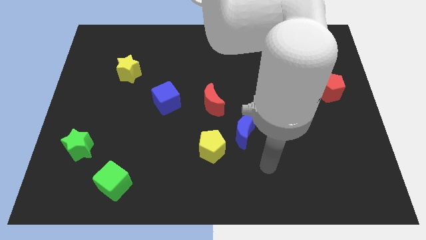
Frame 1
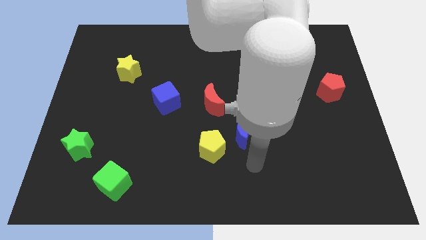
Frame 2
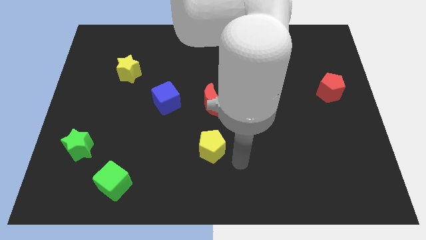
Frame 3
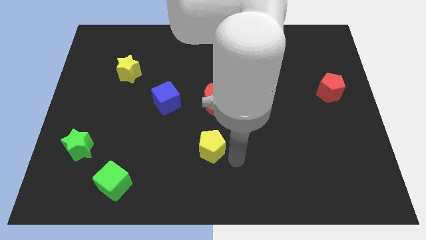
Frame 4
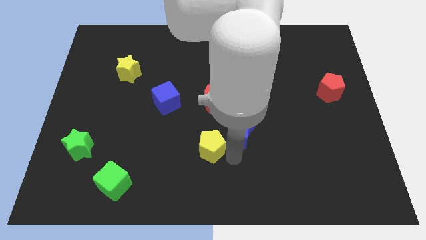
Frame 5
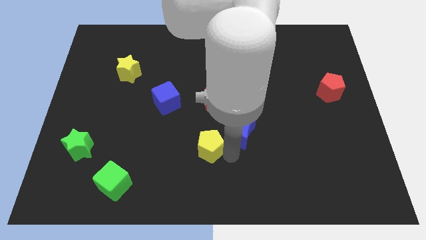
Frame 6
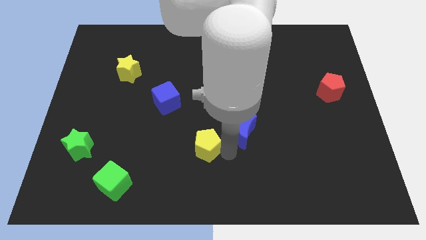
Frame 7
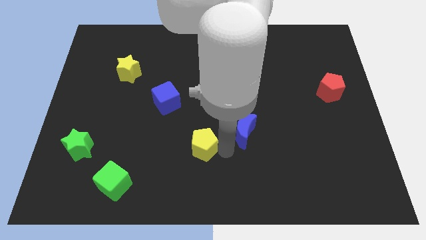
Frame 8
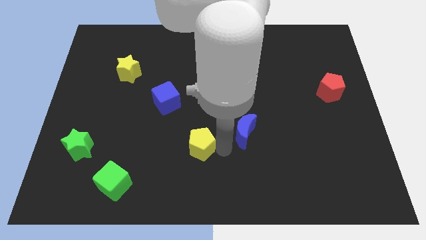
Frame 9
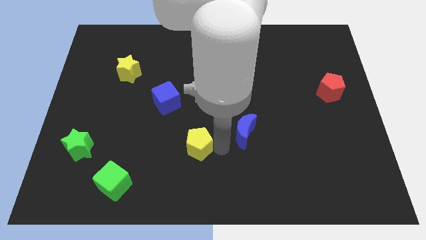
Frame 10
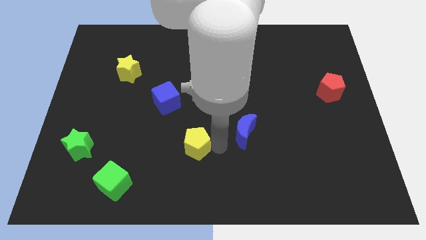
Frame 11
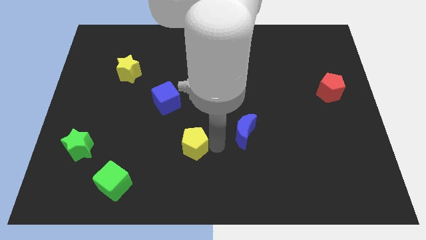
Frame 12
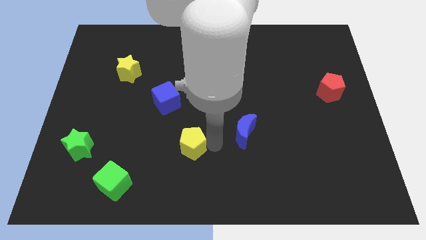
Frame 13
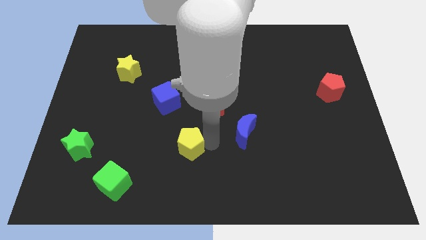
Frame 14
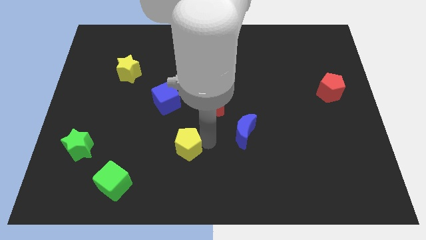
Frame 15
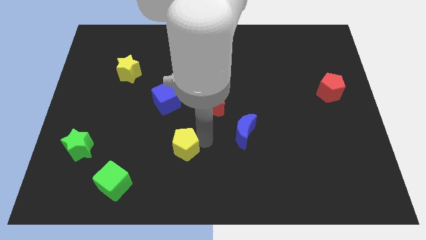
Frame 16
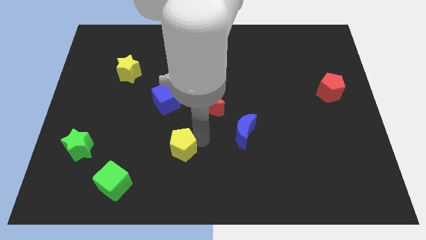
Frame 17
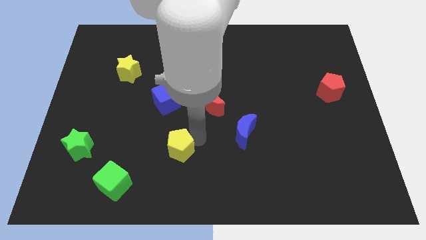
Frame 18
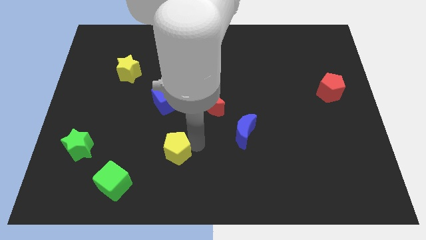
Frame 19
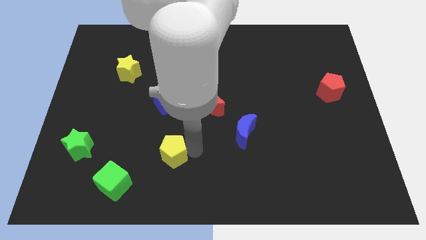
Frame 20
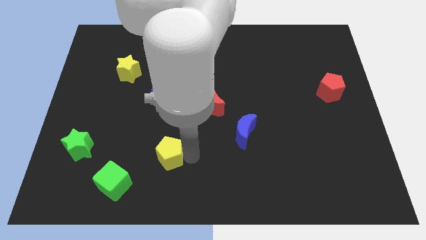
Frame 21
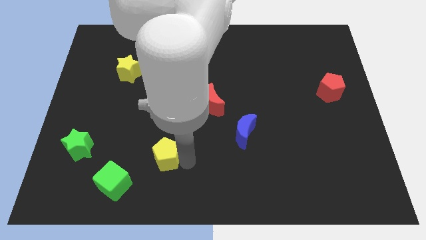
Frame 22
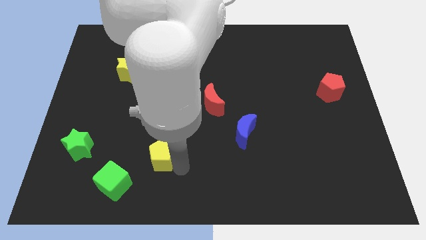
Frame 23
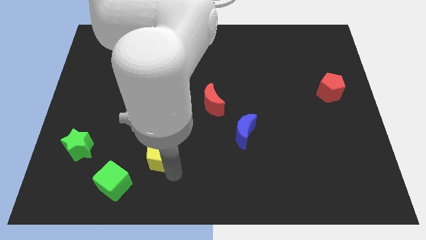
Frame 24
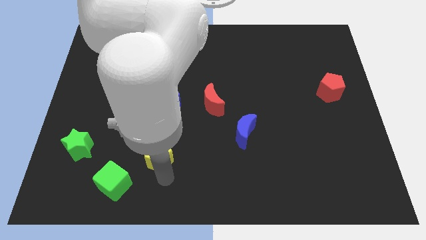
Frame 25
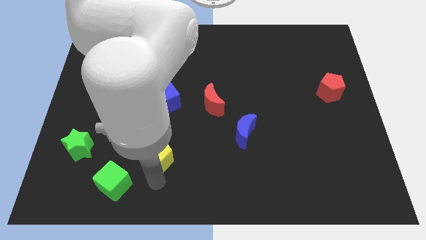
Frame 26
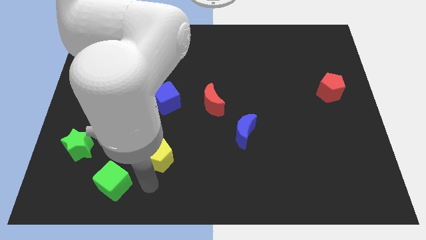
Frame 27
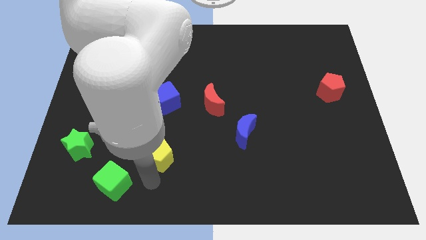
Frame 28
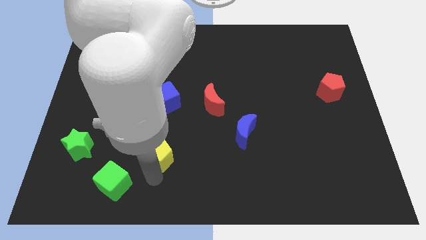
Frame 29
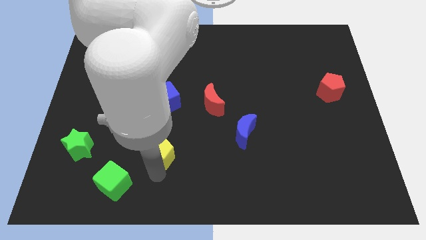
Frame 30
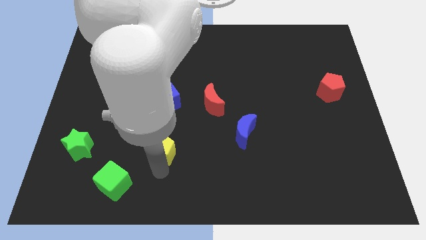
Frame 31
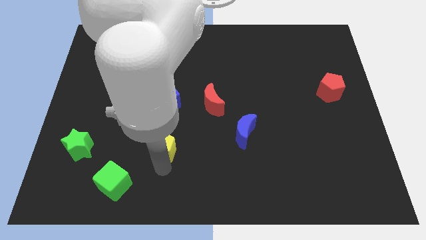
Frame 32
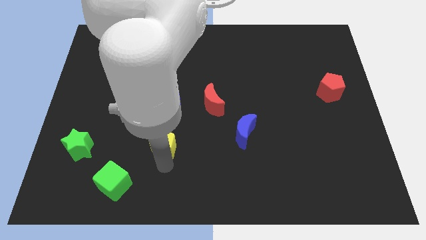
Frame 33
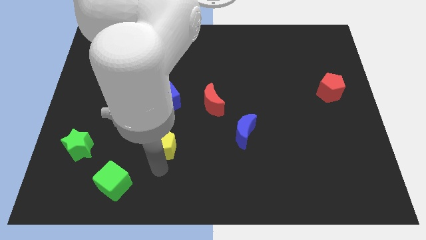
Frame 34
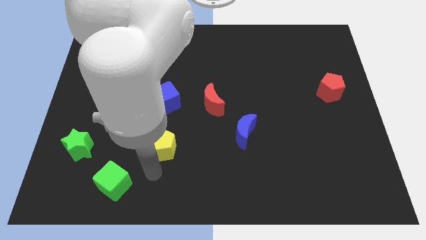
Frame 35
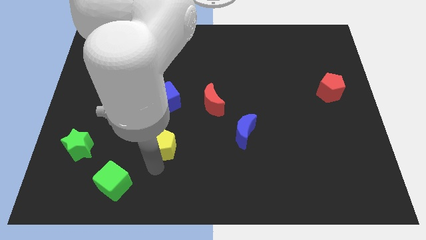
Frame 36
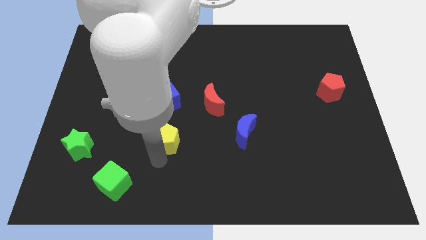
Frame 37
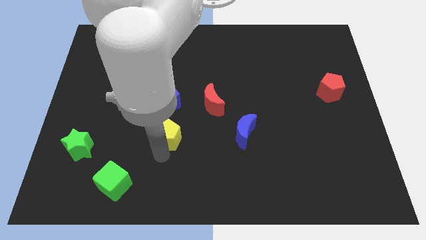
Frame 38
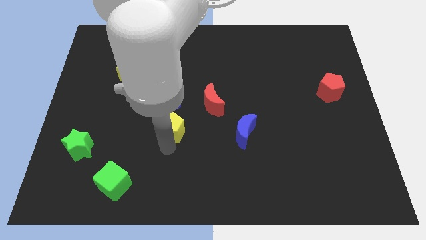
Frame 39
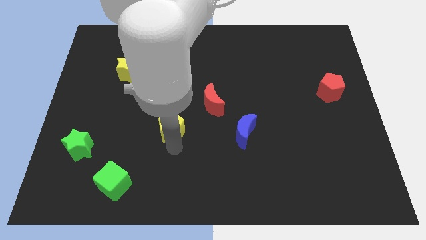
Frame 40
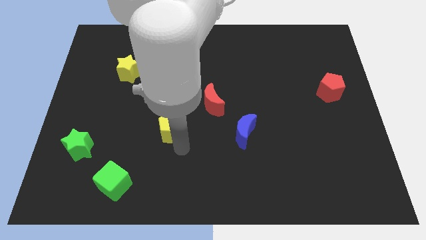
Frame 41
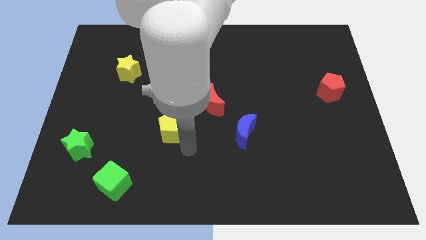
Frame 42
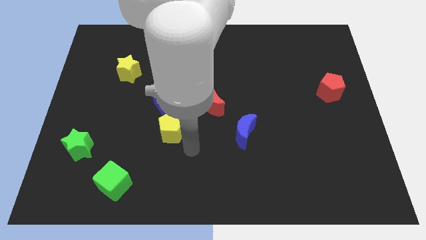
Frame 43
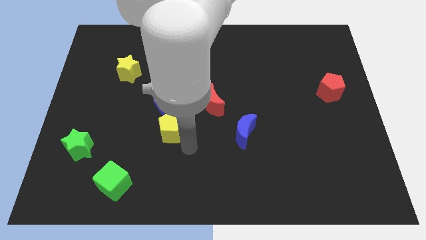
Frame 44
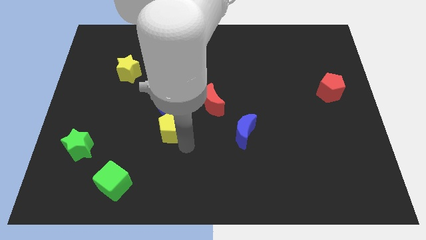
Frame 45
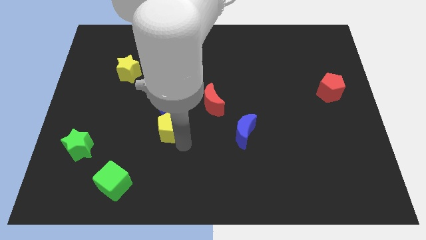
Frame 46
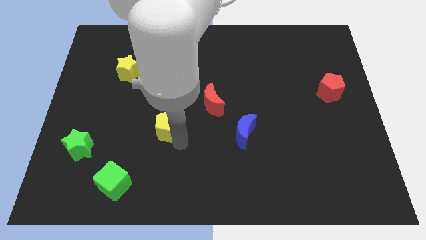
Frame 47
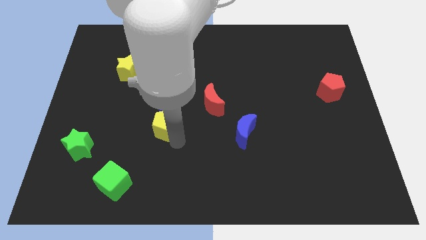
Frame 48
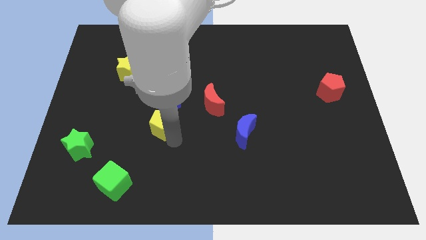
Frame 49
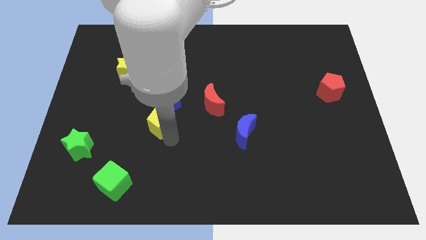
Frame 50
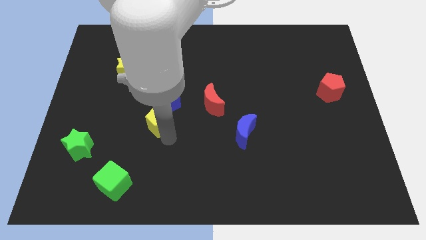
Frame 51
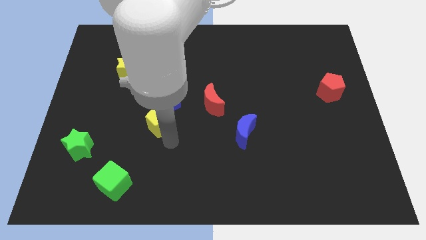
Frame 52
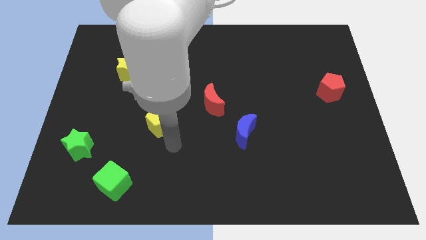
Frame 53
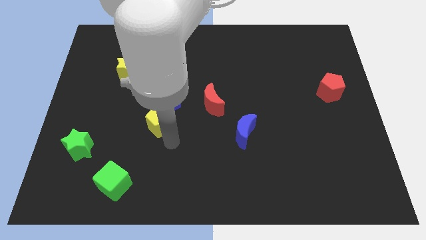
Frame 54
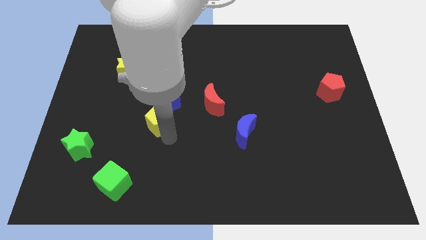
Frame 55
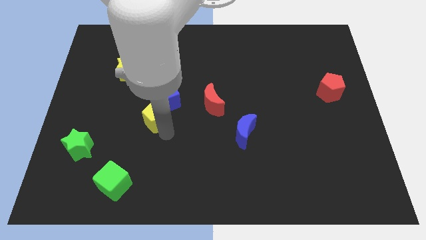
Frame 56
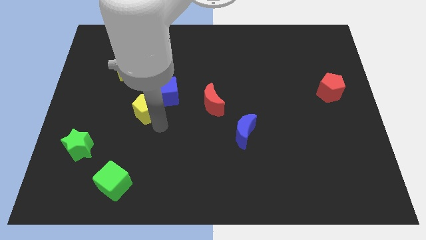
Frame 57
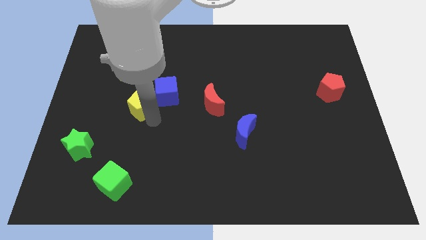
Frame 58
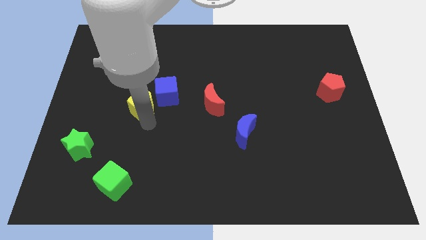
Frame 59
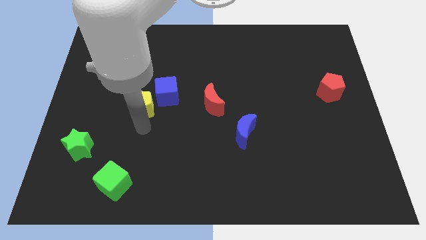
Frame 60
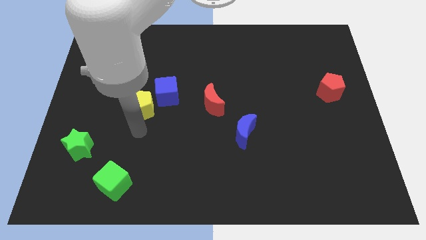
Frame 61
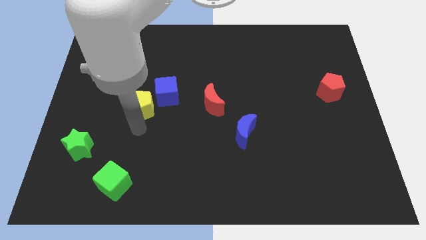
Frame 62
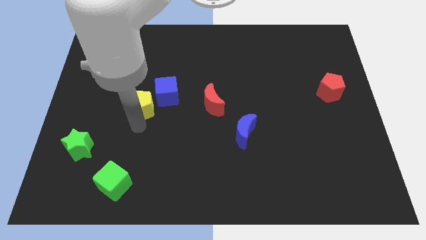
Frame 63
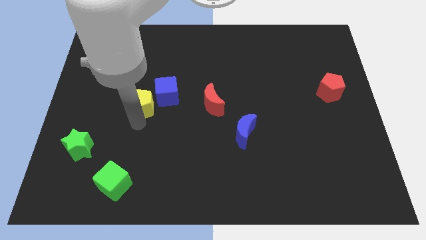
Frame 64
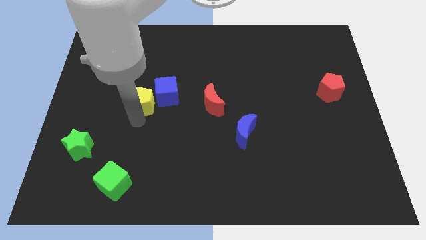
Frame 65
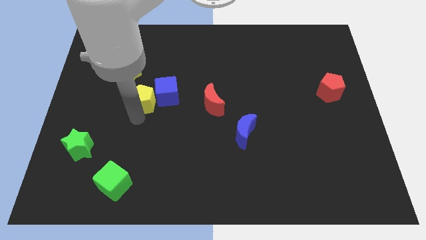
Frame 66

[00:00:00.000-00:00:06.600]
move the yellow pentagon to the bottom right of the yellow star
